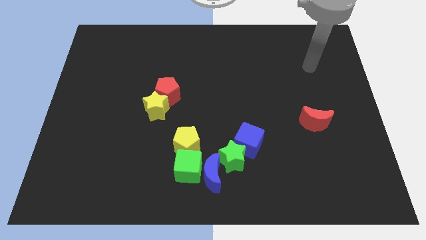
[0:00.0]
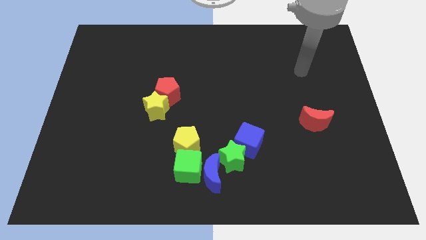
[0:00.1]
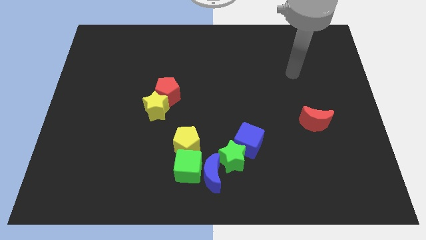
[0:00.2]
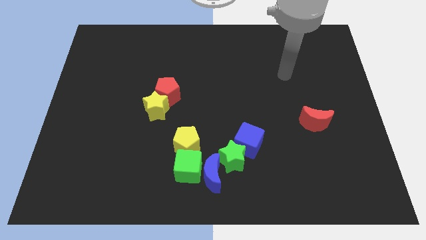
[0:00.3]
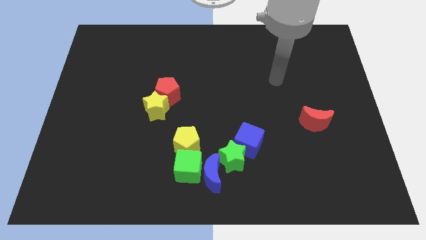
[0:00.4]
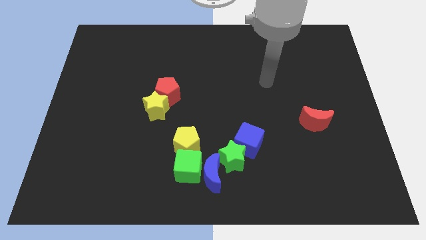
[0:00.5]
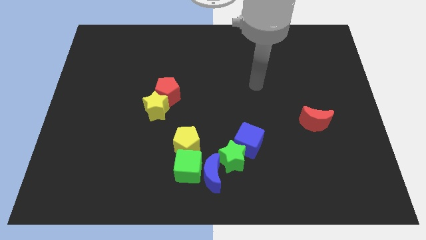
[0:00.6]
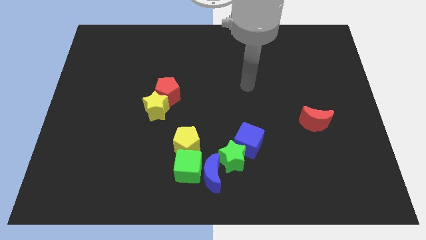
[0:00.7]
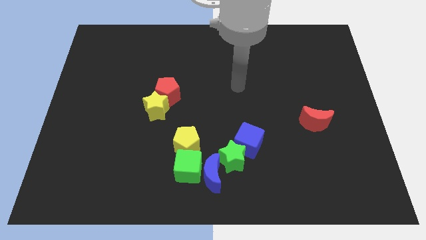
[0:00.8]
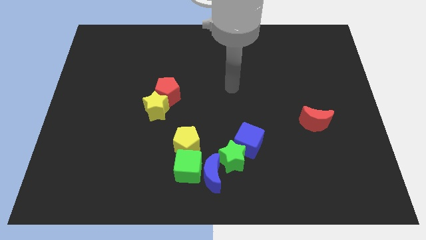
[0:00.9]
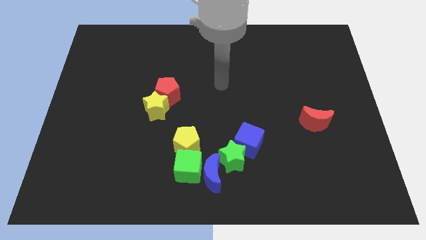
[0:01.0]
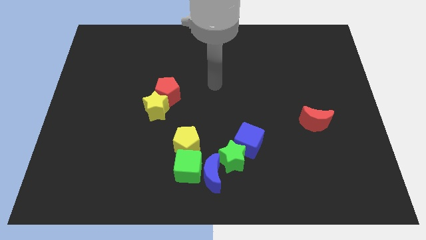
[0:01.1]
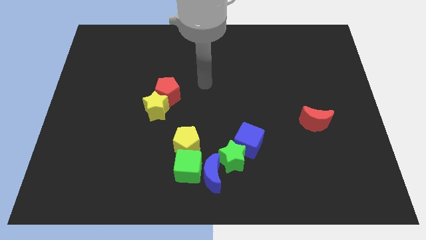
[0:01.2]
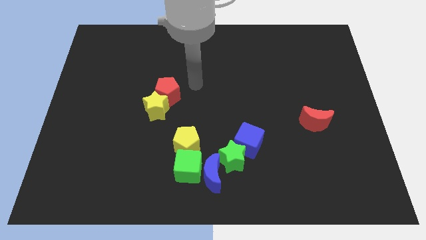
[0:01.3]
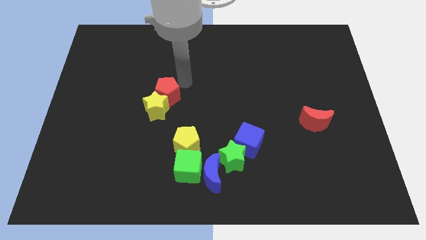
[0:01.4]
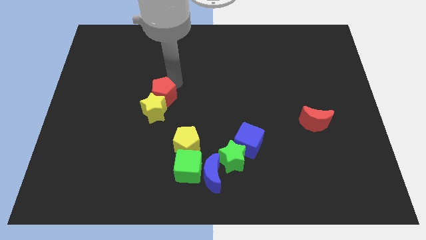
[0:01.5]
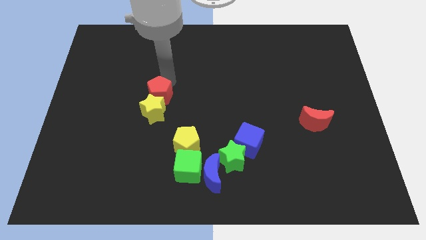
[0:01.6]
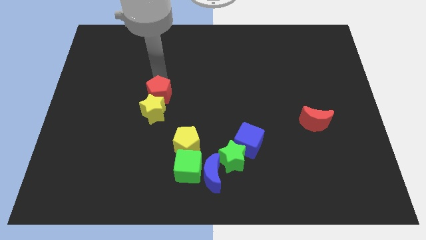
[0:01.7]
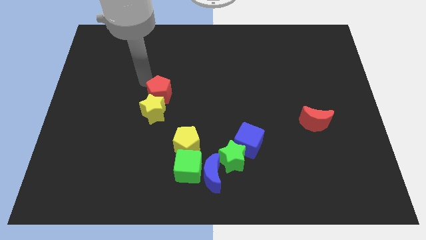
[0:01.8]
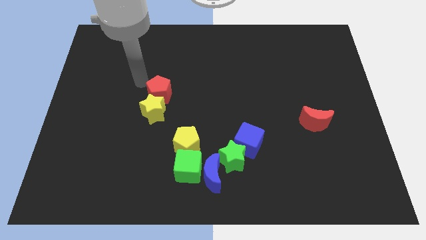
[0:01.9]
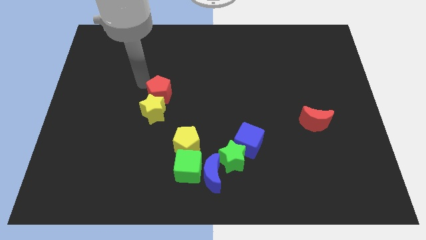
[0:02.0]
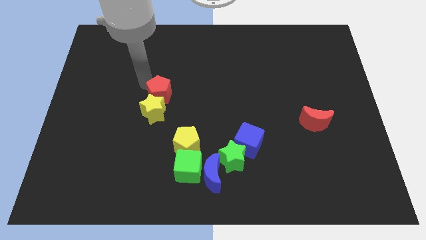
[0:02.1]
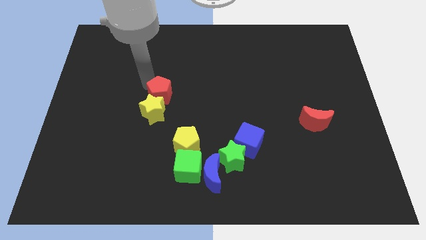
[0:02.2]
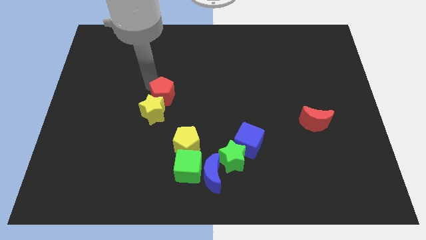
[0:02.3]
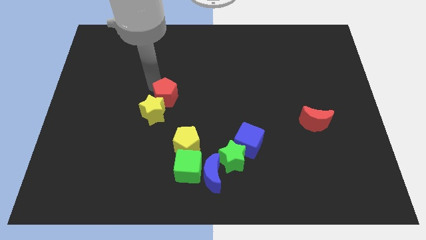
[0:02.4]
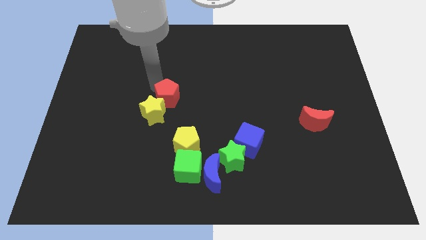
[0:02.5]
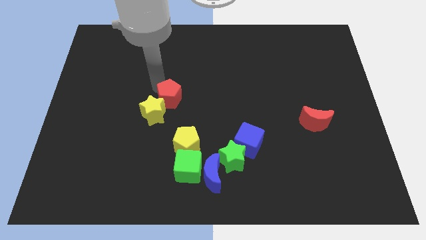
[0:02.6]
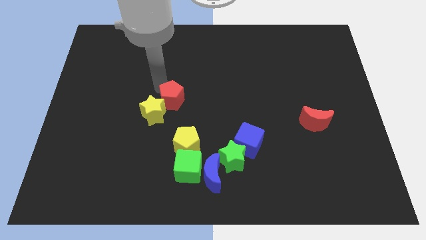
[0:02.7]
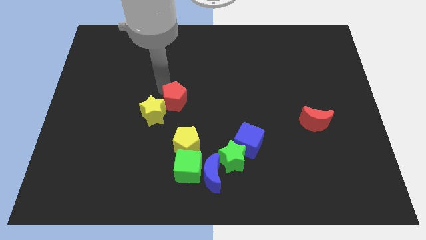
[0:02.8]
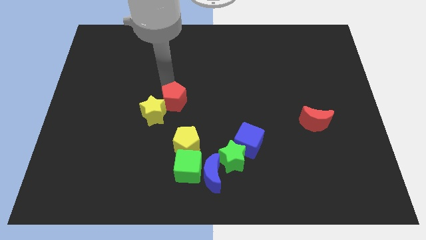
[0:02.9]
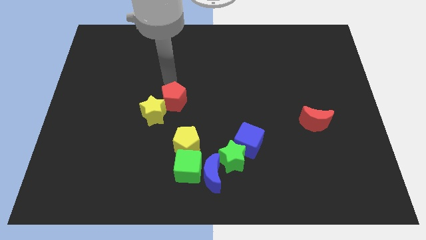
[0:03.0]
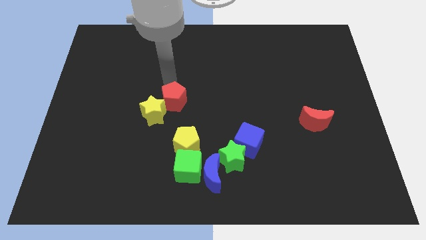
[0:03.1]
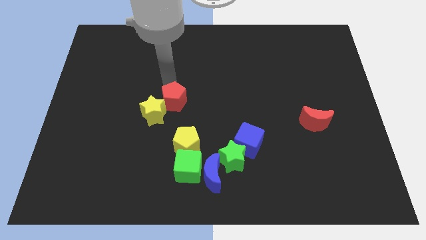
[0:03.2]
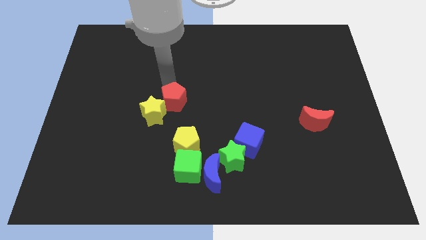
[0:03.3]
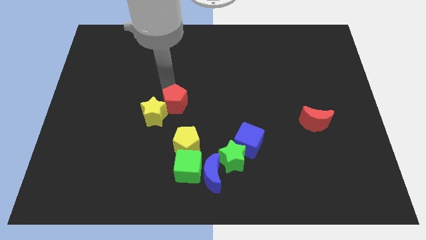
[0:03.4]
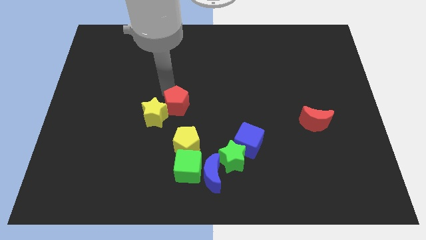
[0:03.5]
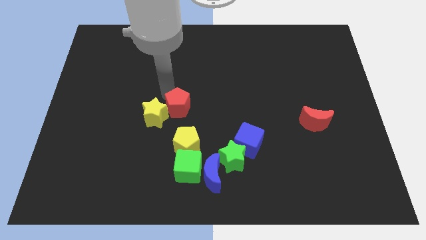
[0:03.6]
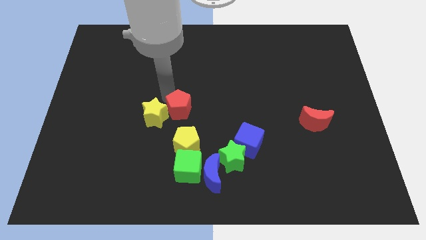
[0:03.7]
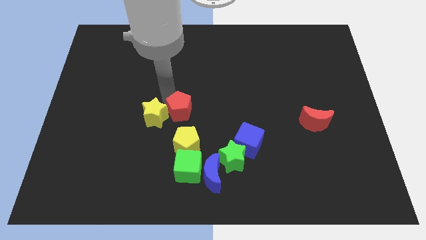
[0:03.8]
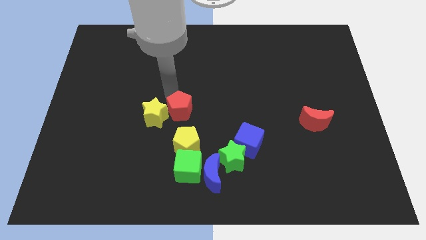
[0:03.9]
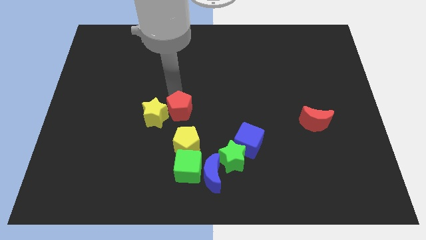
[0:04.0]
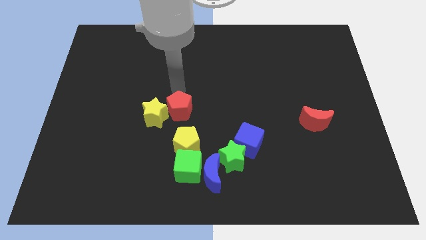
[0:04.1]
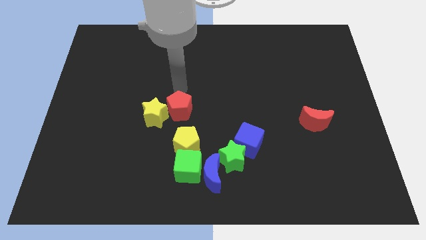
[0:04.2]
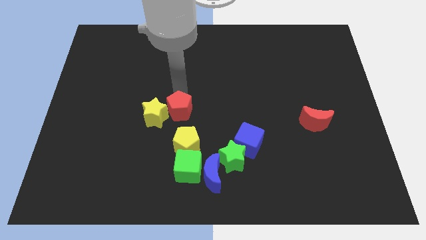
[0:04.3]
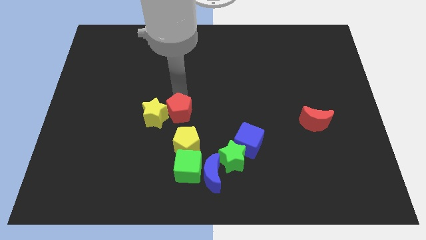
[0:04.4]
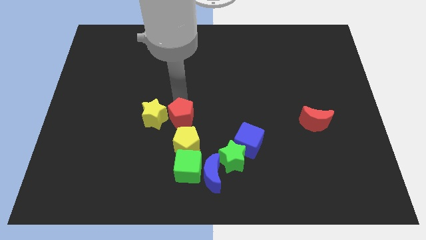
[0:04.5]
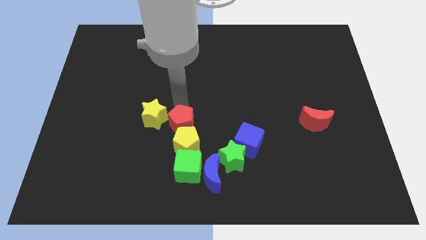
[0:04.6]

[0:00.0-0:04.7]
slide the red pentagon next to the yellow pentagon

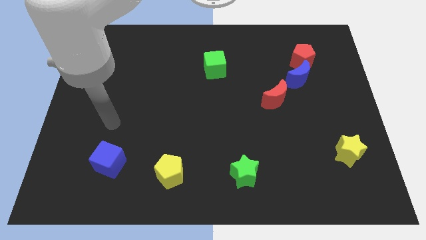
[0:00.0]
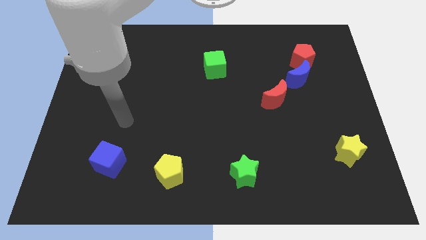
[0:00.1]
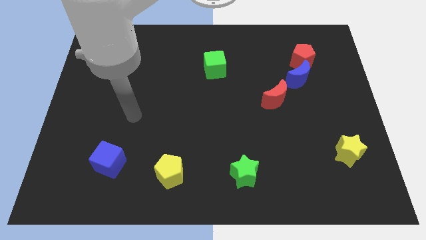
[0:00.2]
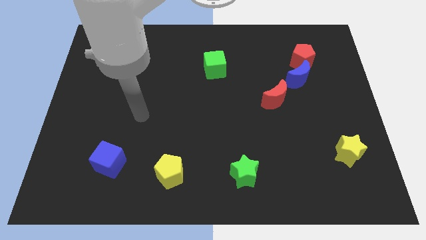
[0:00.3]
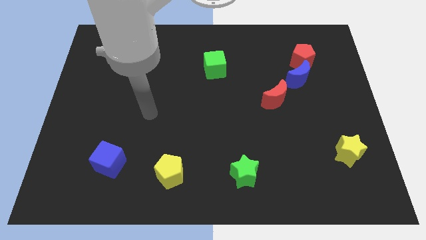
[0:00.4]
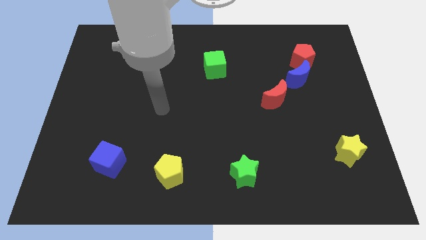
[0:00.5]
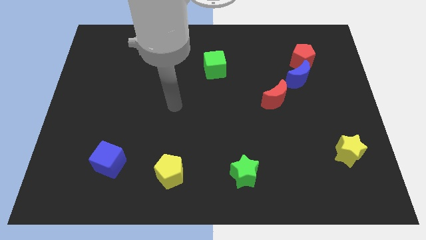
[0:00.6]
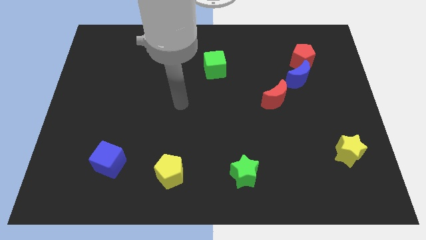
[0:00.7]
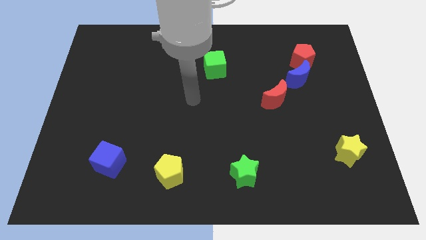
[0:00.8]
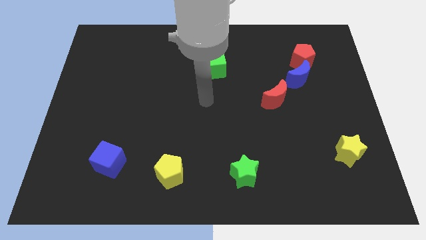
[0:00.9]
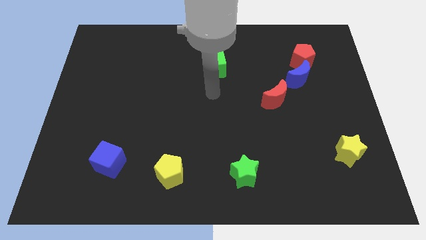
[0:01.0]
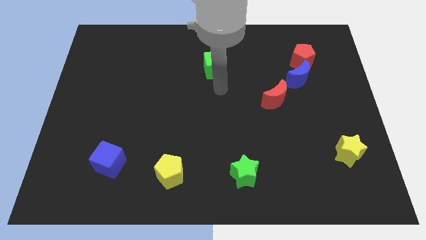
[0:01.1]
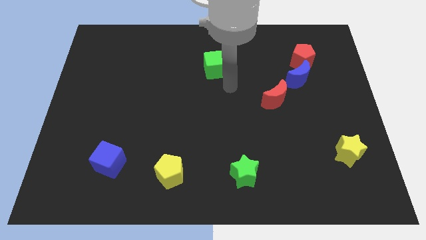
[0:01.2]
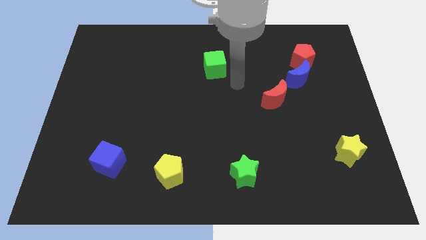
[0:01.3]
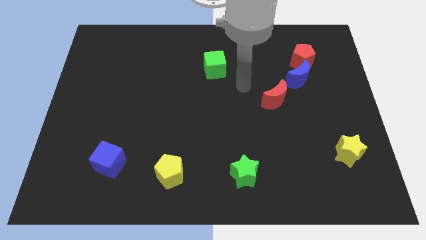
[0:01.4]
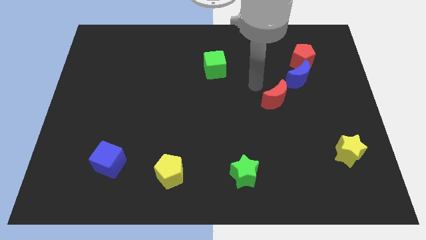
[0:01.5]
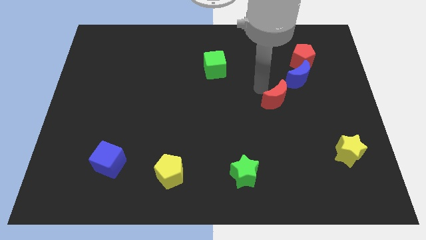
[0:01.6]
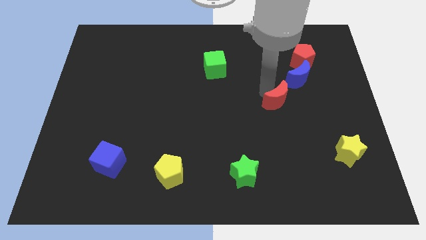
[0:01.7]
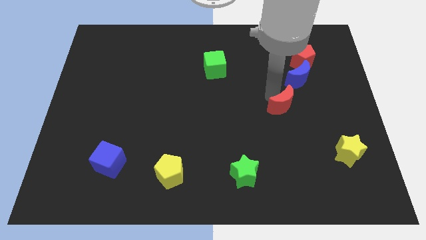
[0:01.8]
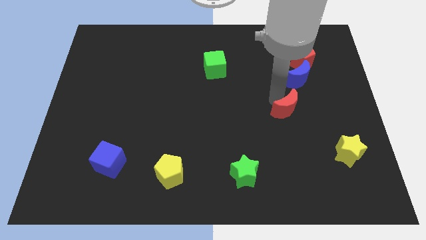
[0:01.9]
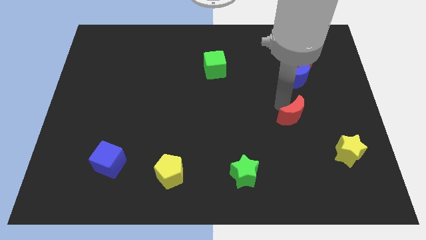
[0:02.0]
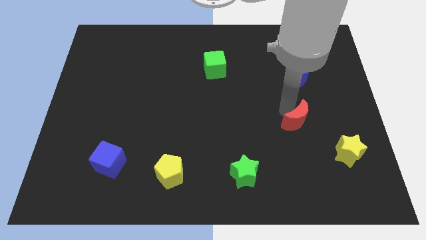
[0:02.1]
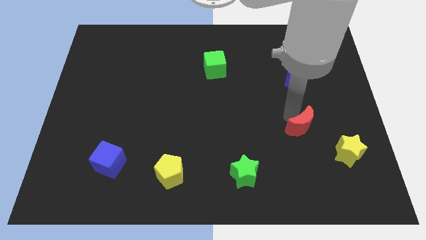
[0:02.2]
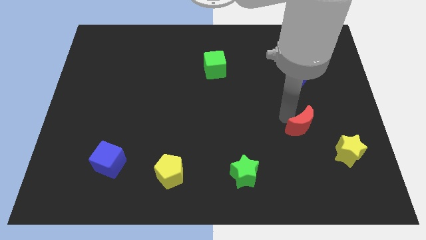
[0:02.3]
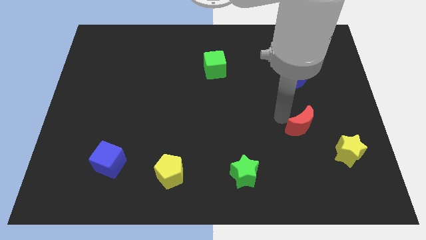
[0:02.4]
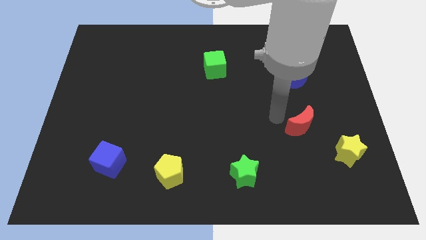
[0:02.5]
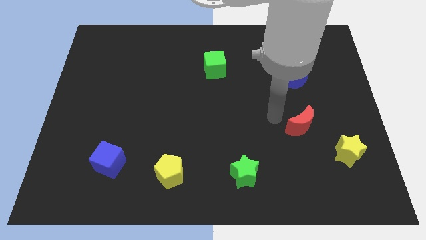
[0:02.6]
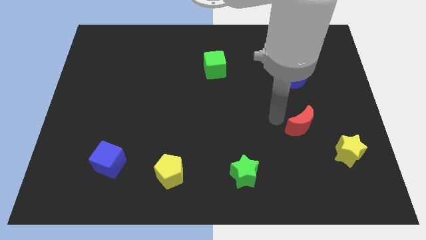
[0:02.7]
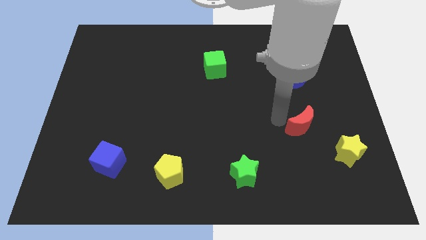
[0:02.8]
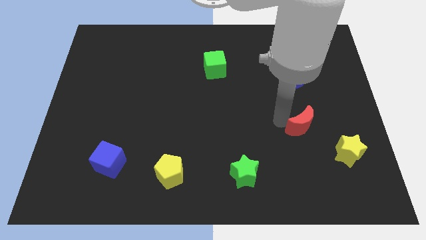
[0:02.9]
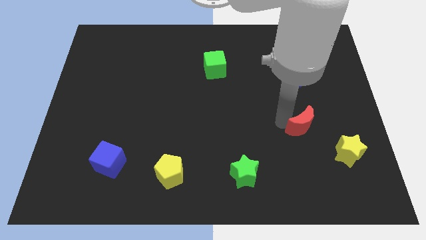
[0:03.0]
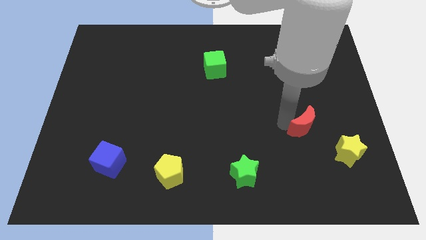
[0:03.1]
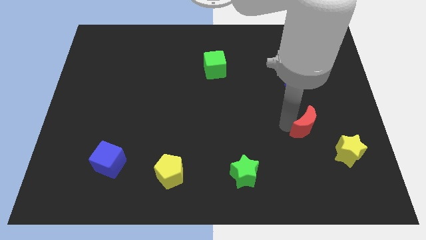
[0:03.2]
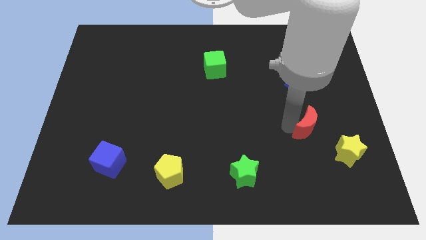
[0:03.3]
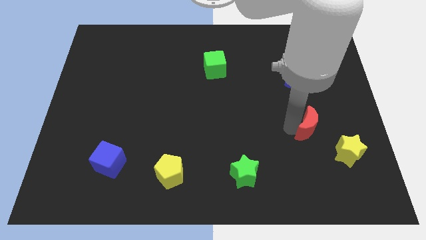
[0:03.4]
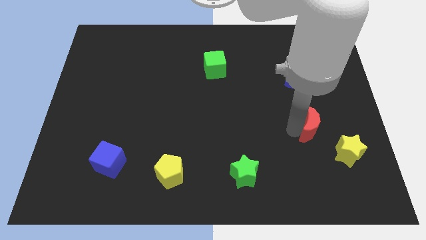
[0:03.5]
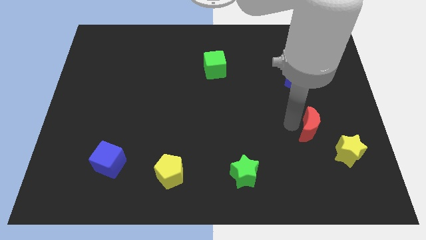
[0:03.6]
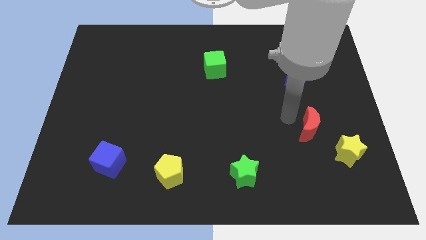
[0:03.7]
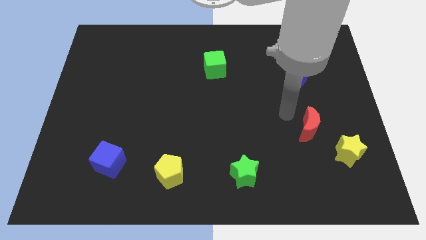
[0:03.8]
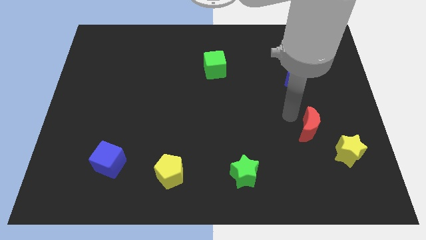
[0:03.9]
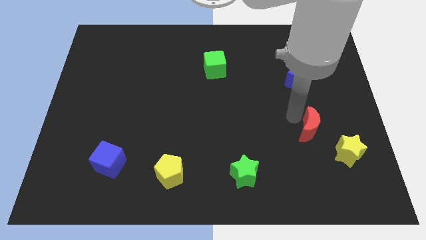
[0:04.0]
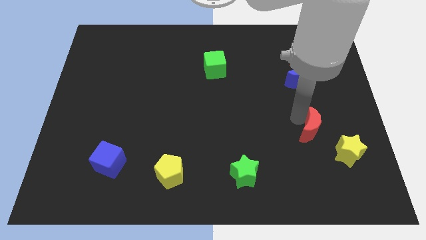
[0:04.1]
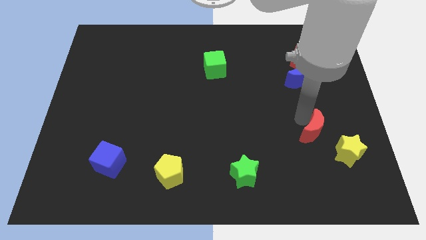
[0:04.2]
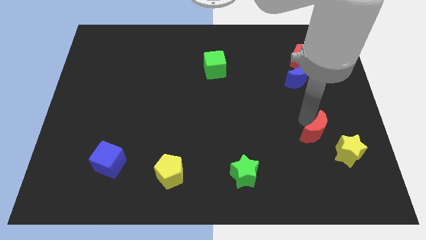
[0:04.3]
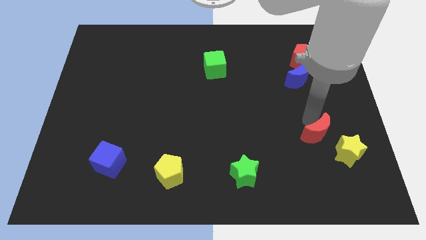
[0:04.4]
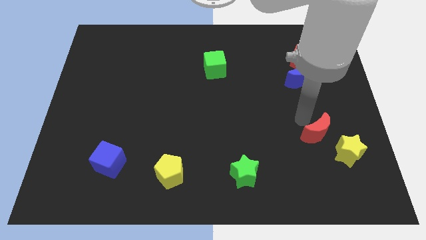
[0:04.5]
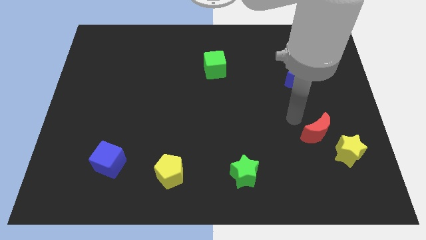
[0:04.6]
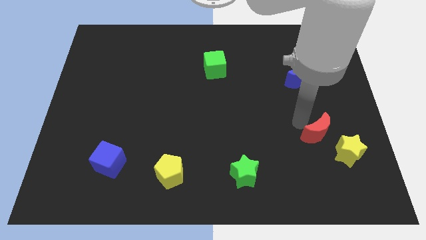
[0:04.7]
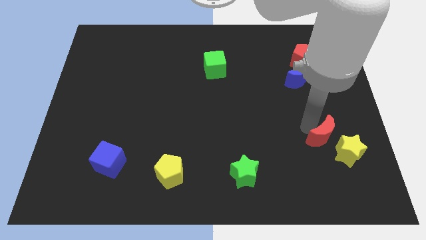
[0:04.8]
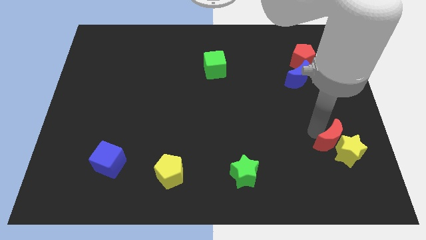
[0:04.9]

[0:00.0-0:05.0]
put the red moon close to the yellow star
